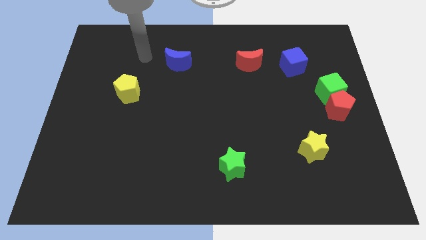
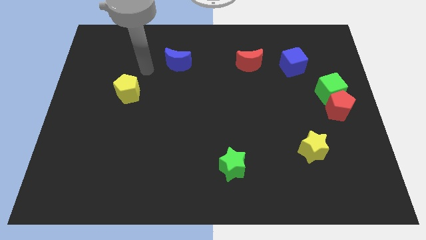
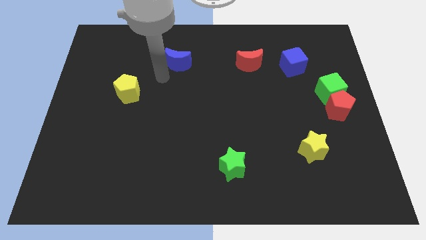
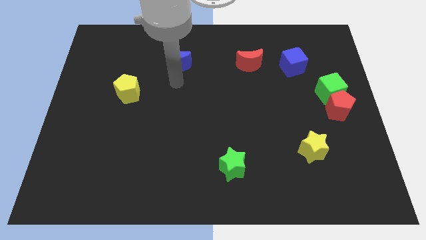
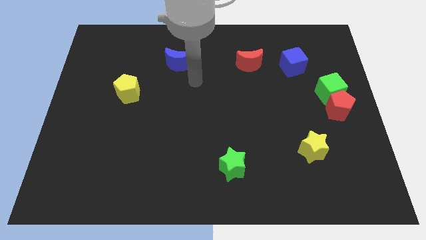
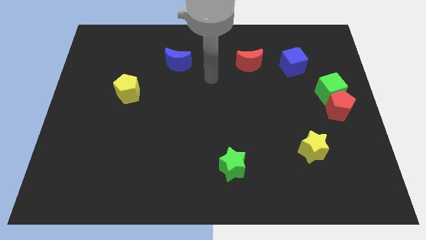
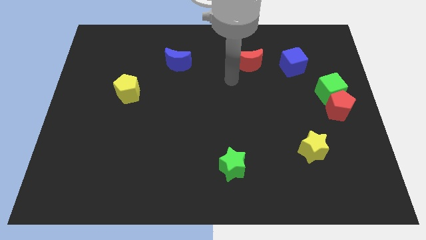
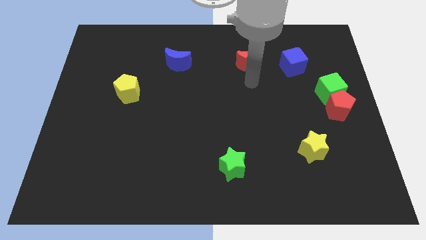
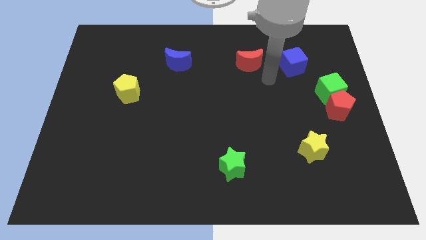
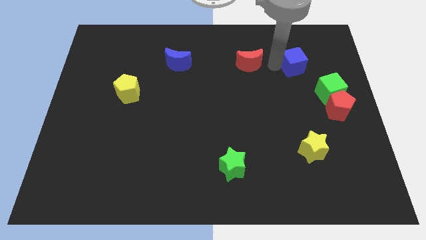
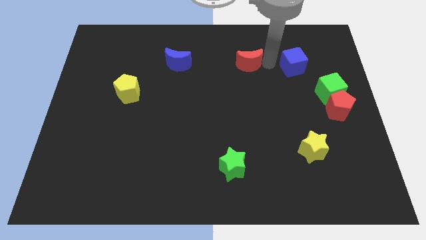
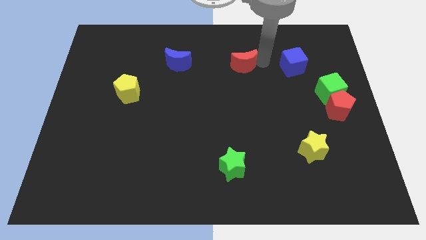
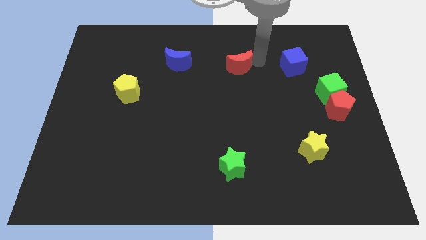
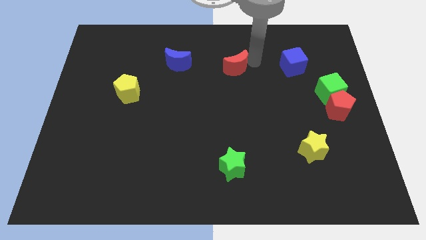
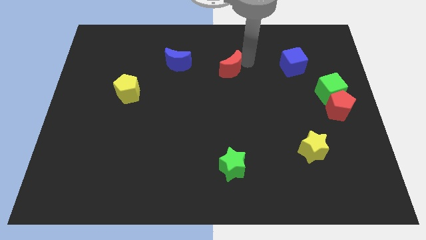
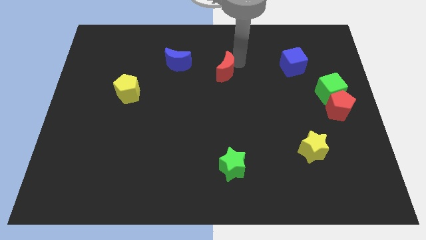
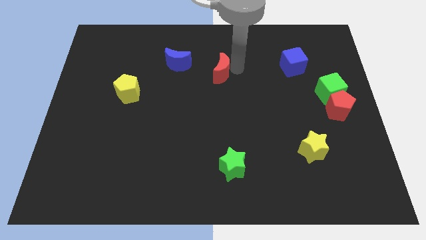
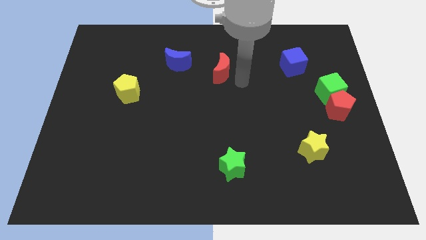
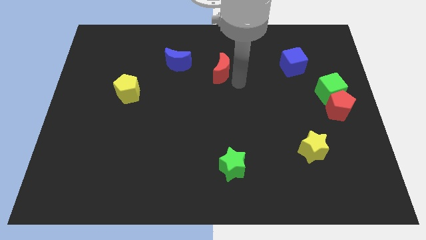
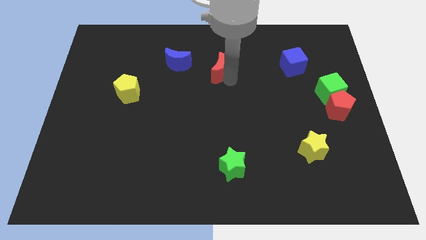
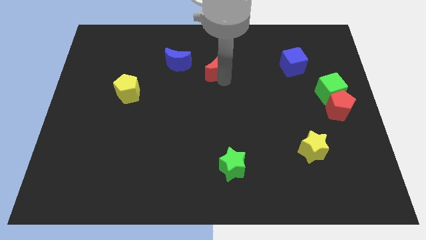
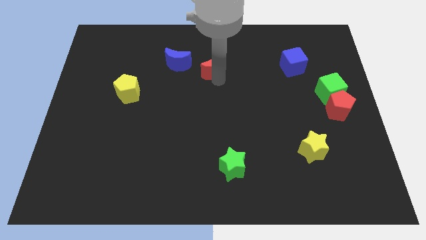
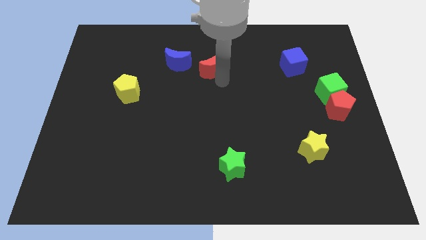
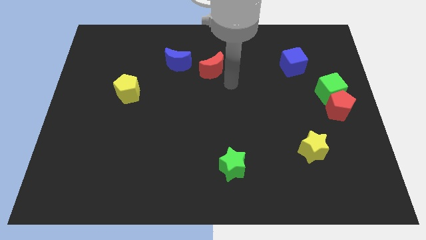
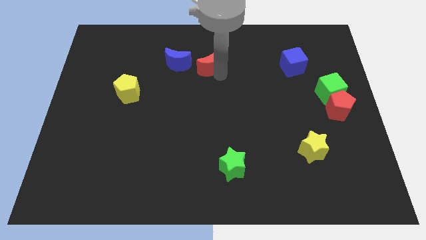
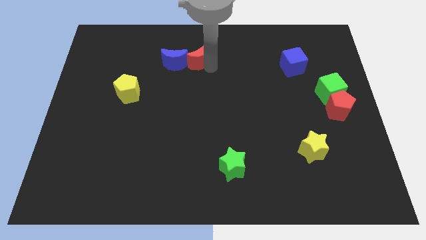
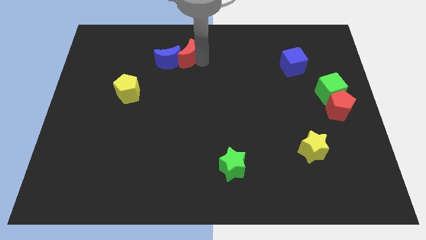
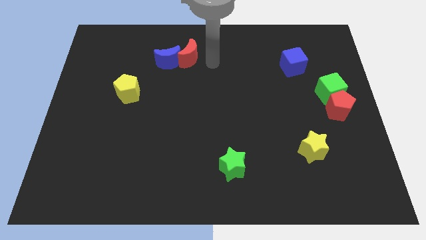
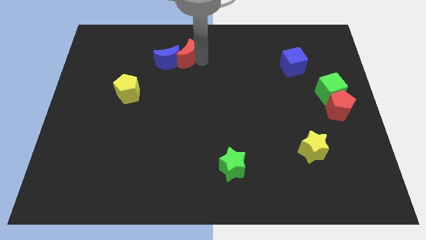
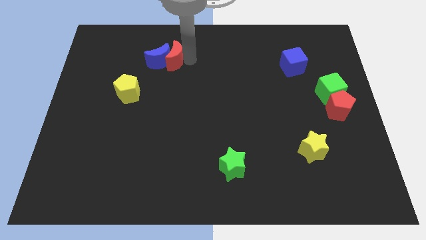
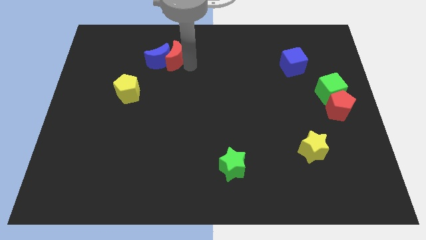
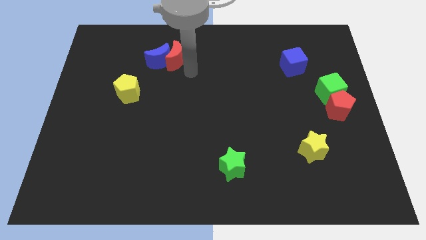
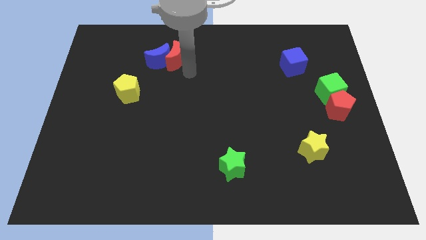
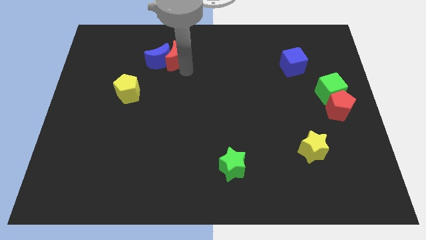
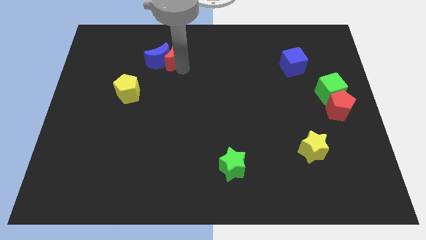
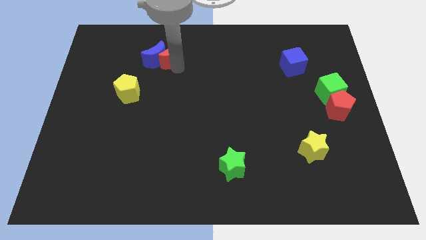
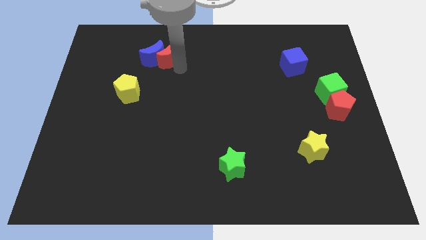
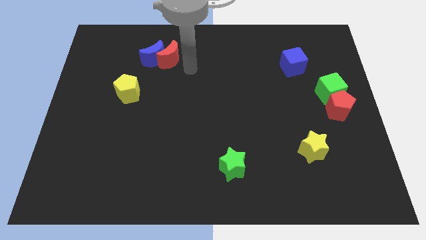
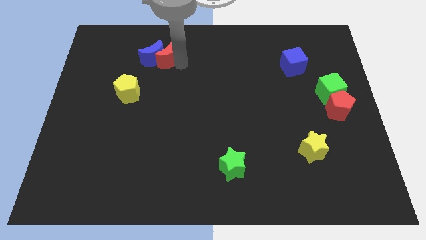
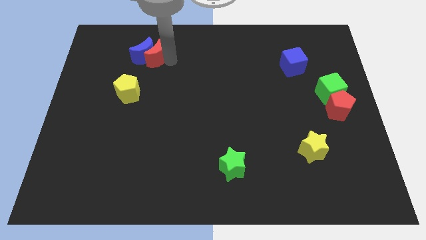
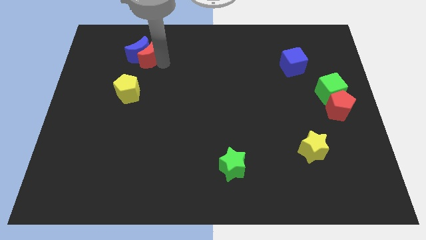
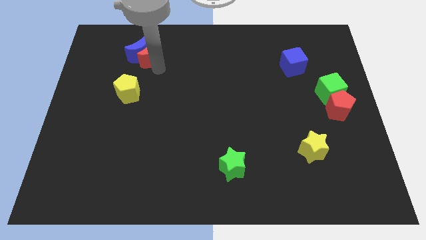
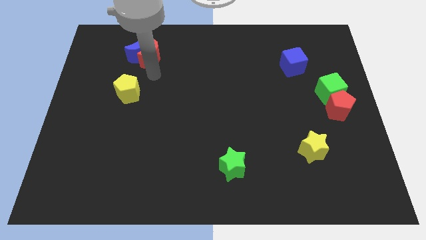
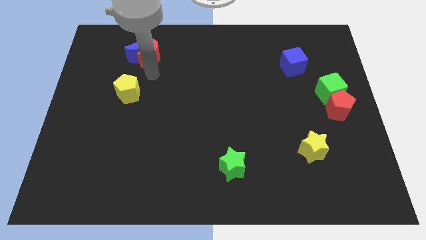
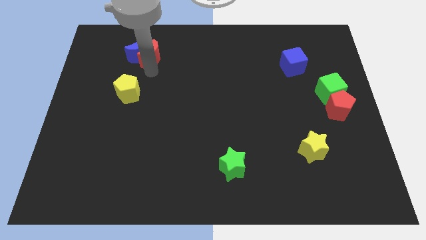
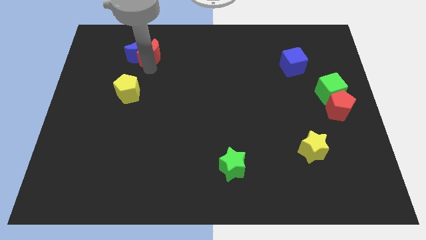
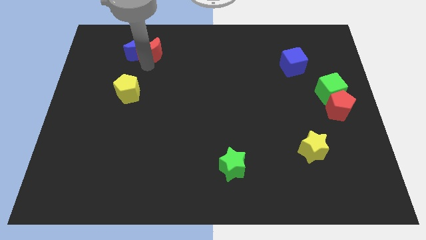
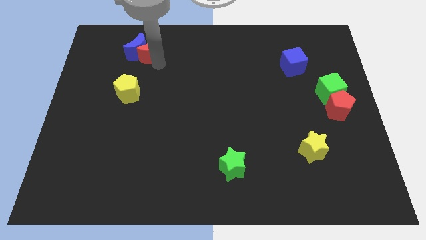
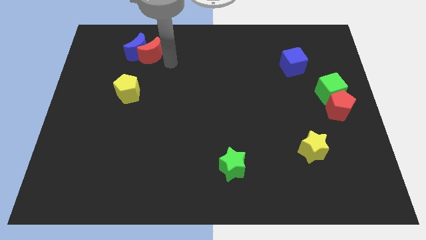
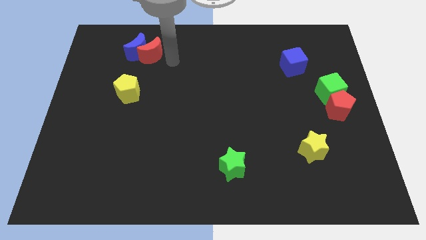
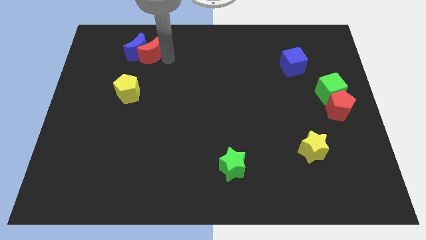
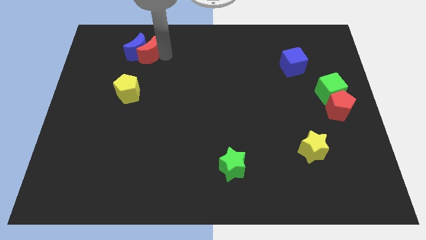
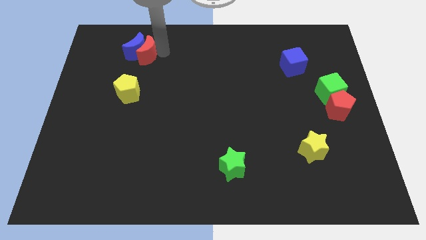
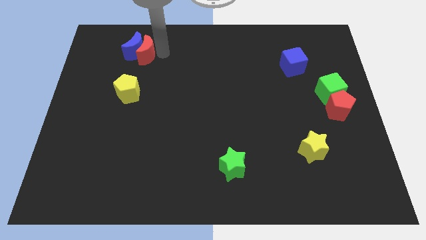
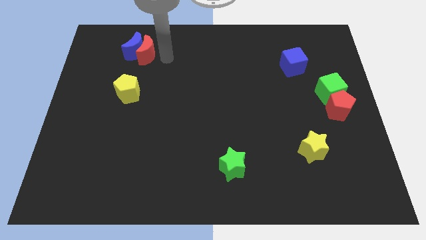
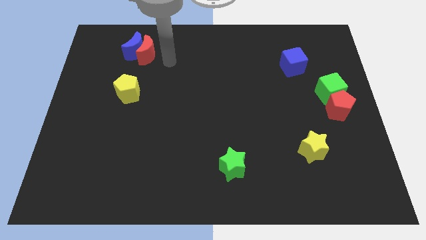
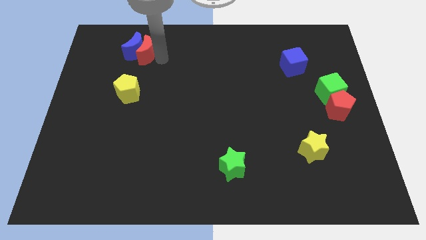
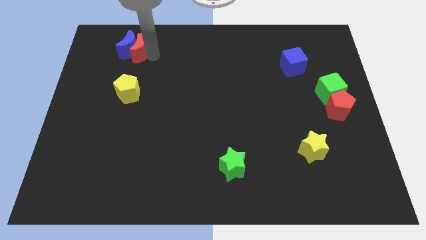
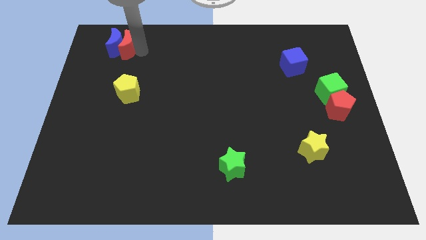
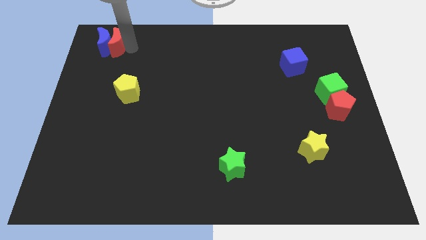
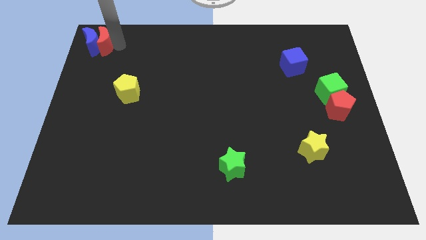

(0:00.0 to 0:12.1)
put the red moon to the top left

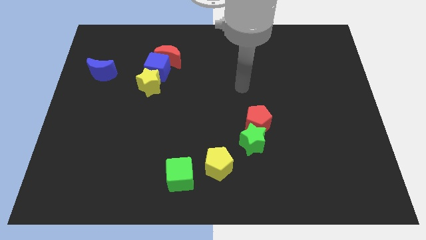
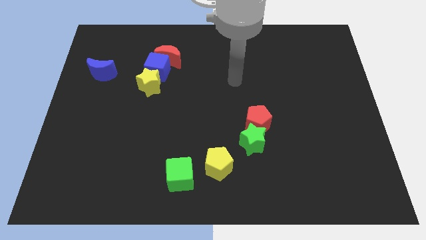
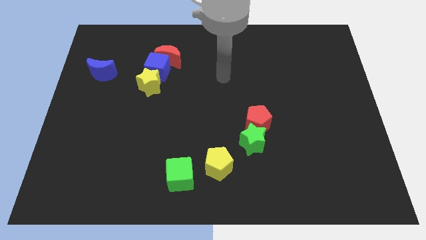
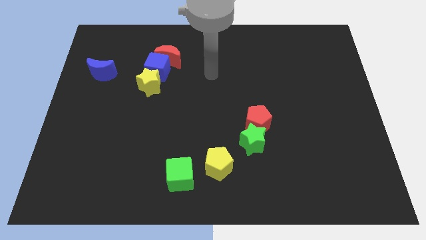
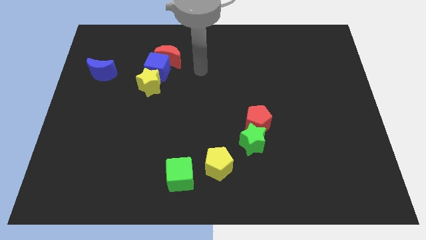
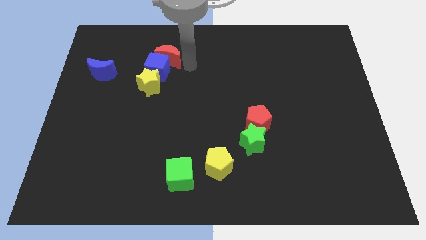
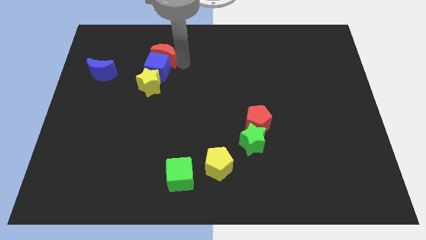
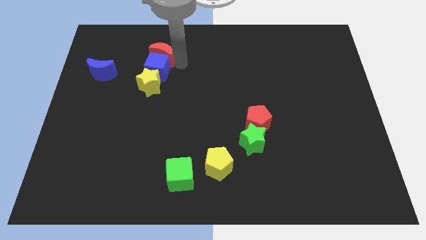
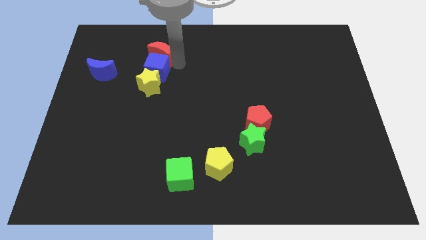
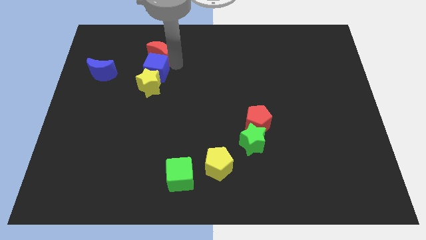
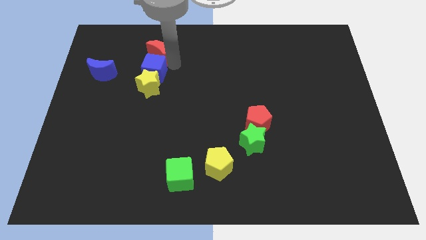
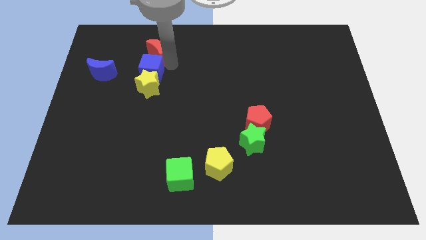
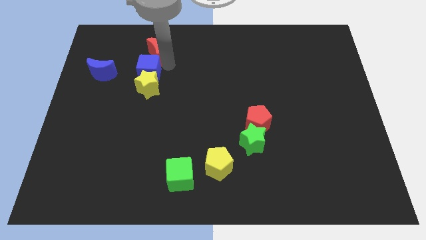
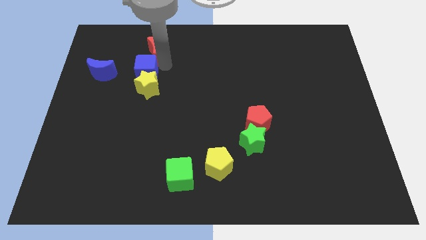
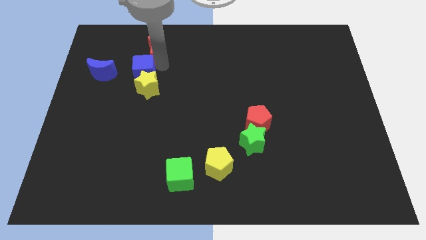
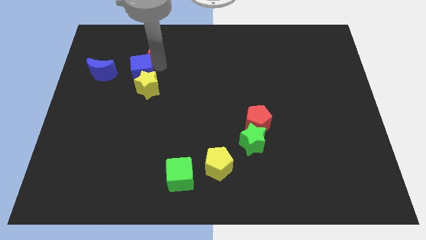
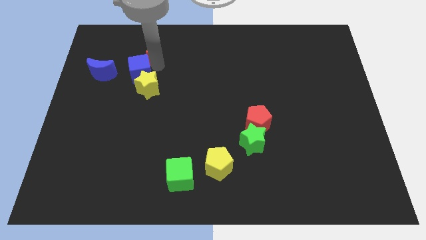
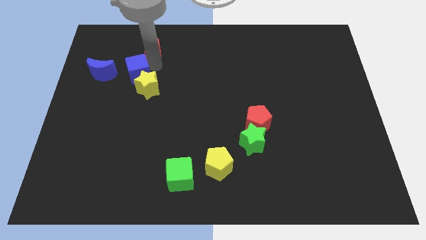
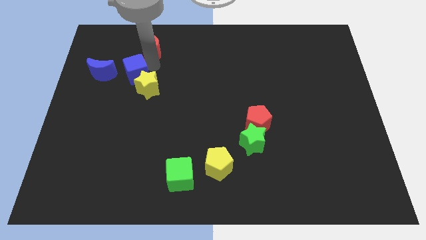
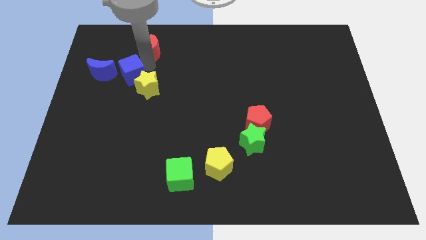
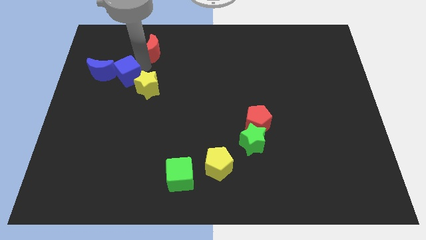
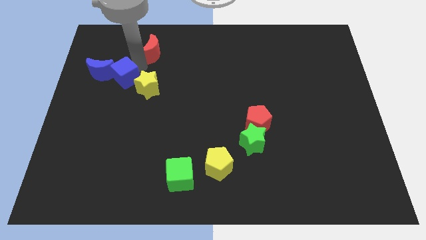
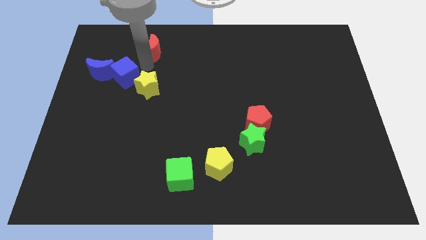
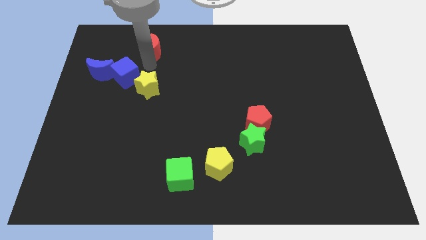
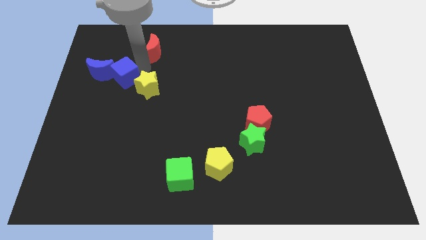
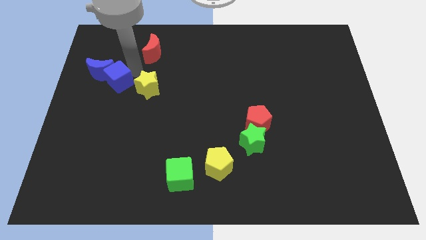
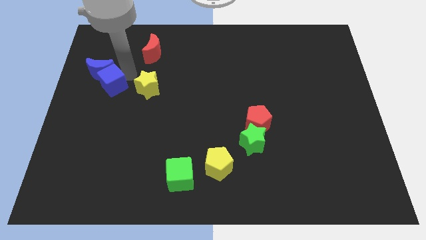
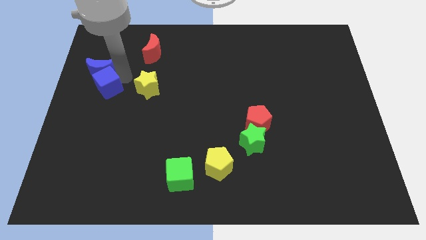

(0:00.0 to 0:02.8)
put the blue cube to the left side of the board
